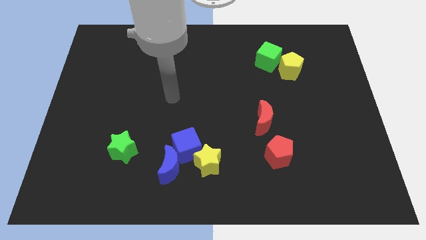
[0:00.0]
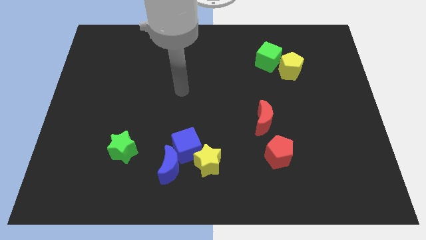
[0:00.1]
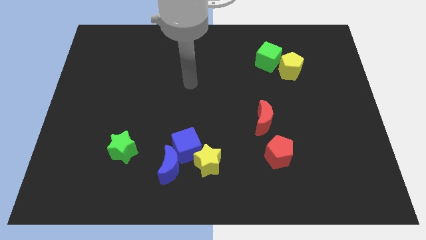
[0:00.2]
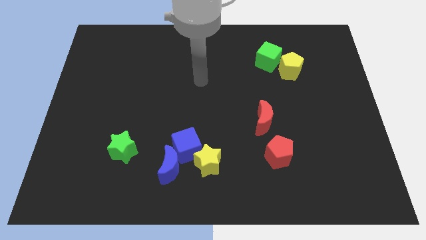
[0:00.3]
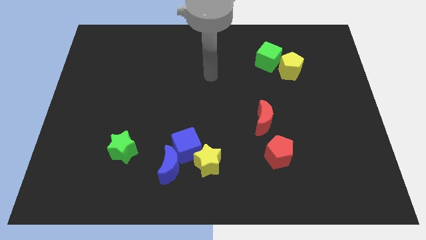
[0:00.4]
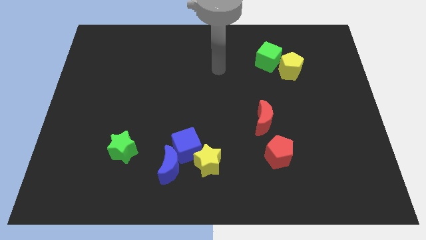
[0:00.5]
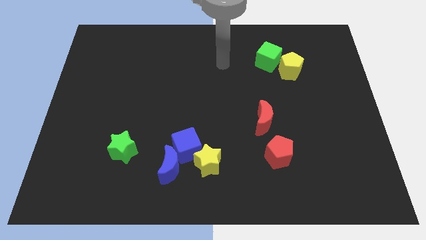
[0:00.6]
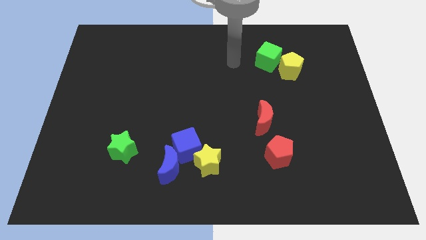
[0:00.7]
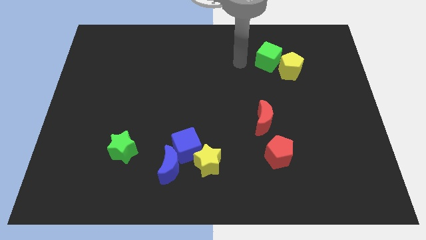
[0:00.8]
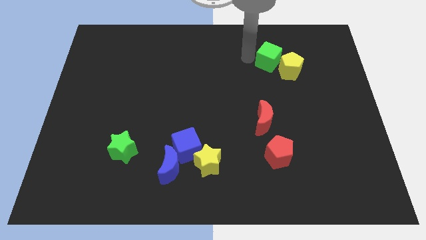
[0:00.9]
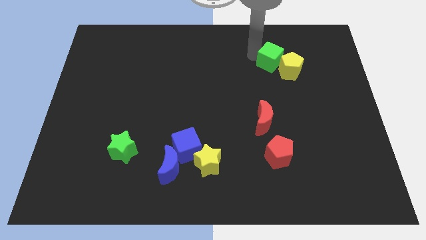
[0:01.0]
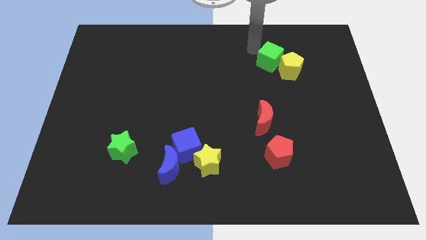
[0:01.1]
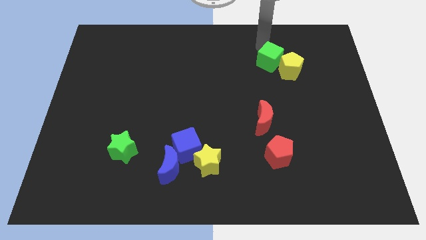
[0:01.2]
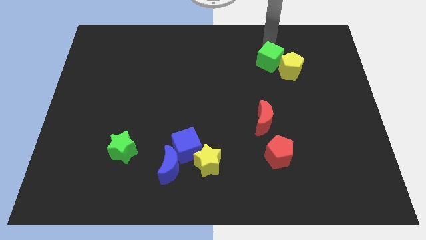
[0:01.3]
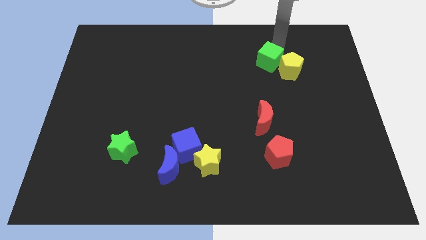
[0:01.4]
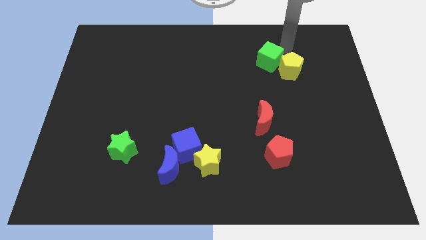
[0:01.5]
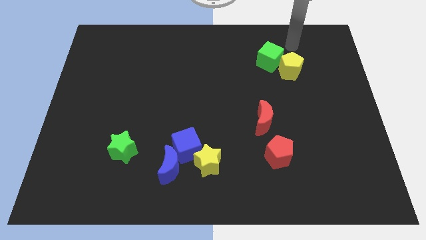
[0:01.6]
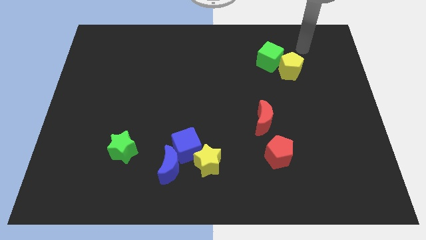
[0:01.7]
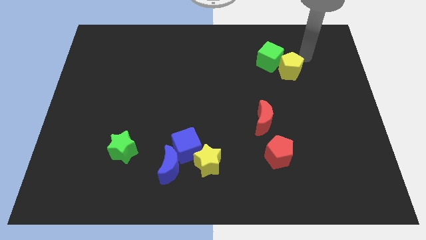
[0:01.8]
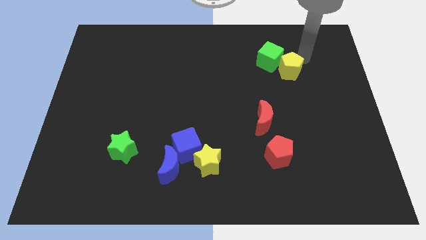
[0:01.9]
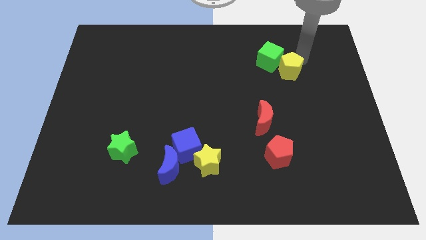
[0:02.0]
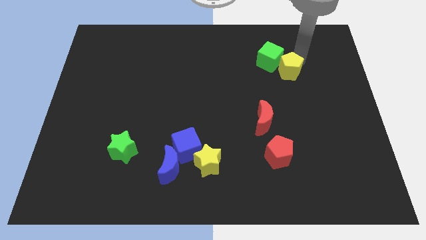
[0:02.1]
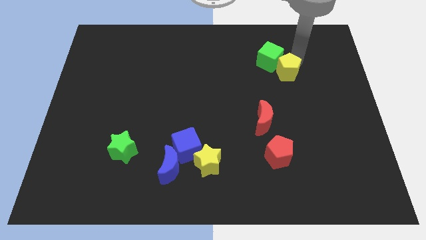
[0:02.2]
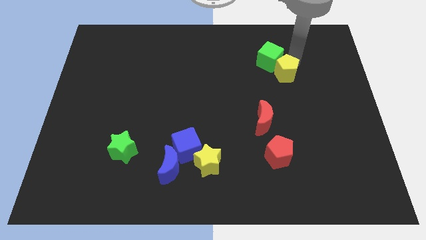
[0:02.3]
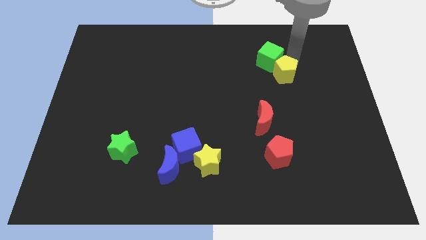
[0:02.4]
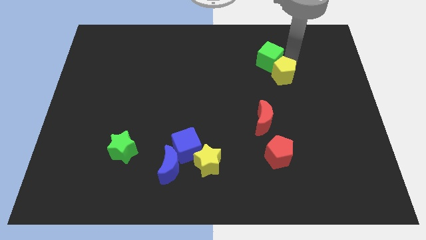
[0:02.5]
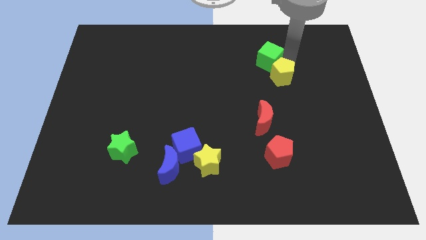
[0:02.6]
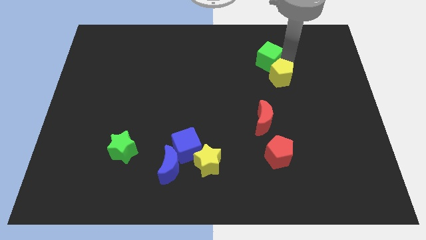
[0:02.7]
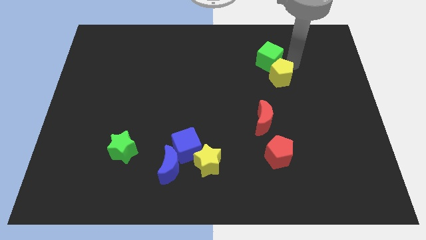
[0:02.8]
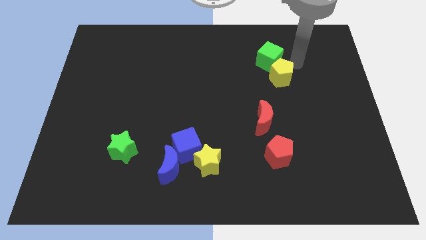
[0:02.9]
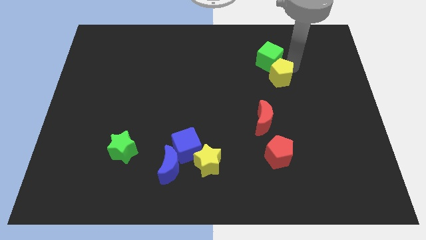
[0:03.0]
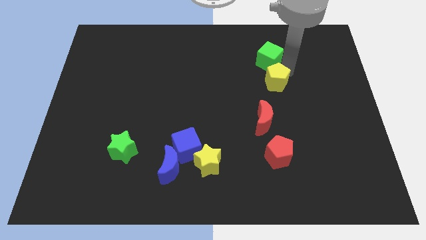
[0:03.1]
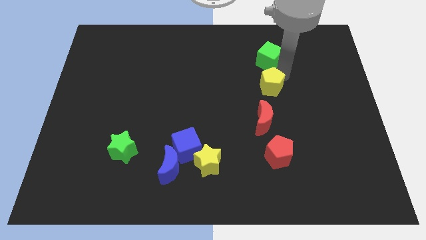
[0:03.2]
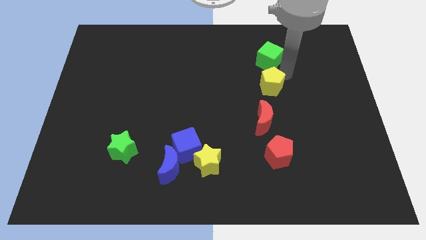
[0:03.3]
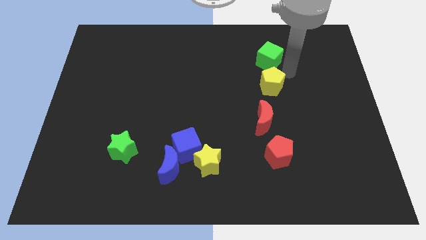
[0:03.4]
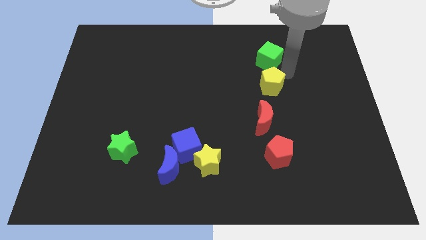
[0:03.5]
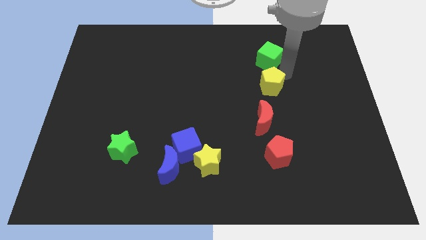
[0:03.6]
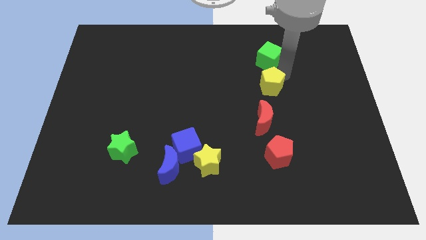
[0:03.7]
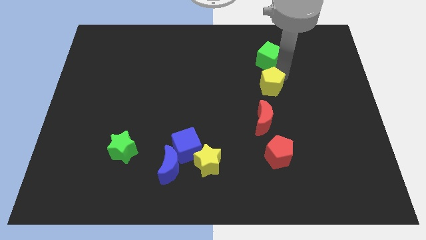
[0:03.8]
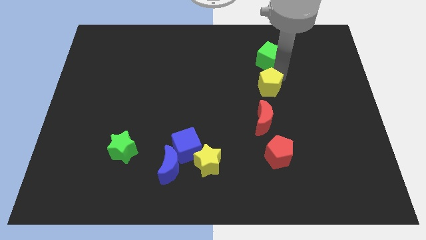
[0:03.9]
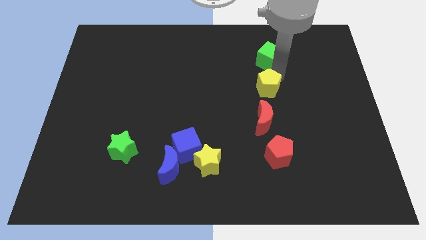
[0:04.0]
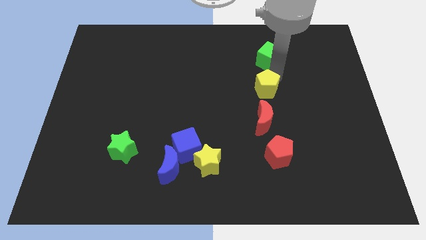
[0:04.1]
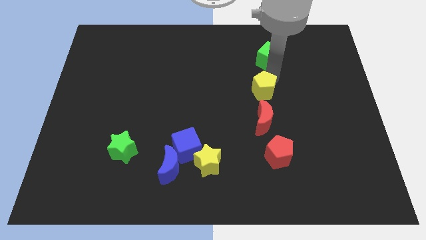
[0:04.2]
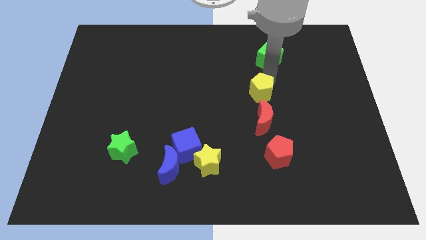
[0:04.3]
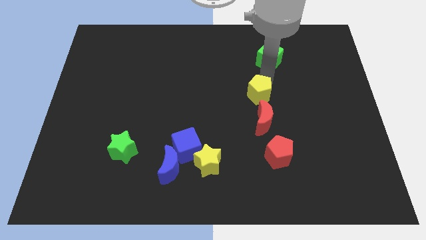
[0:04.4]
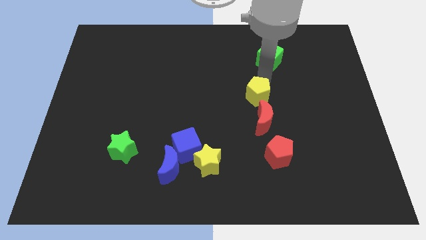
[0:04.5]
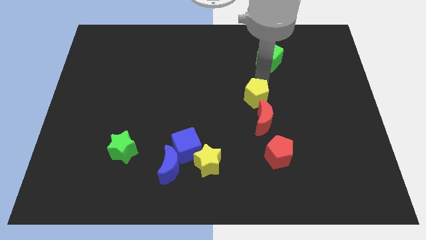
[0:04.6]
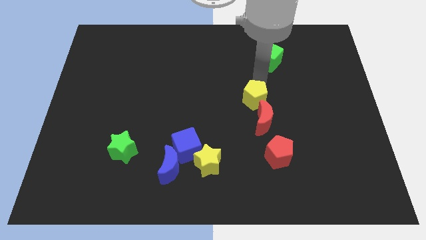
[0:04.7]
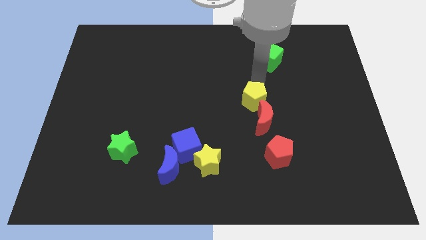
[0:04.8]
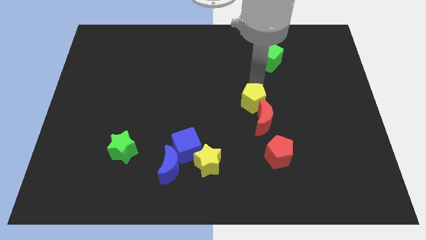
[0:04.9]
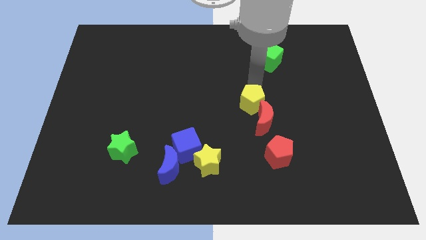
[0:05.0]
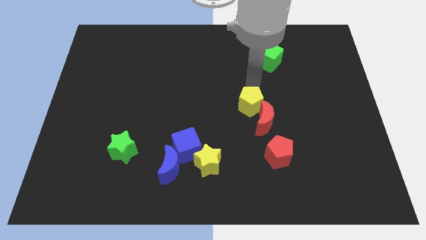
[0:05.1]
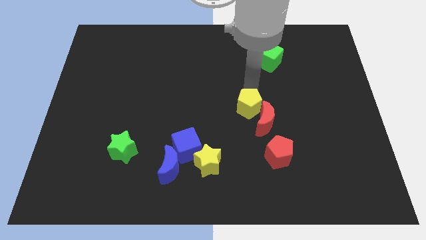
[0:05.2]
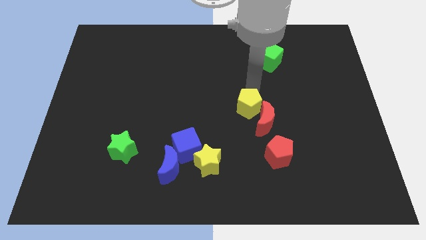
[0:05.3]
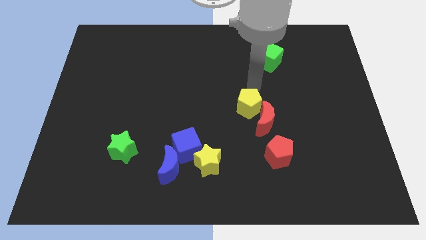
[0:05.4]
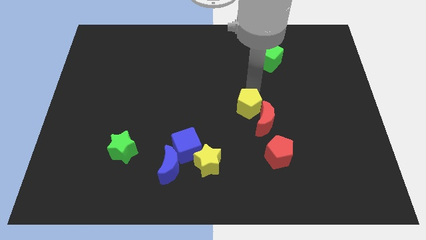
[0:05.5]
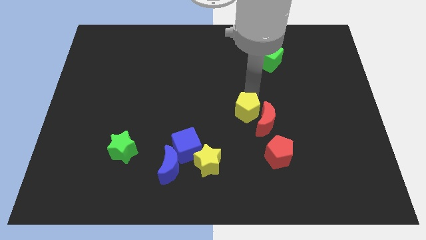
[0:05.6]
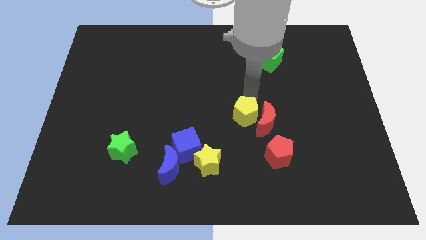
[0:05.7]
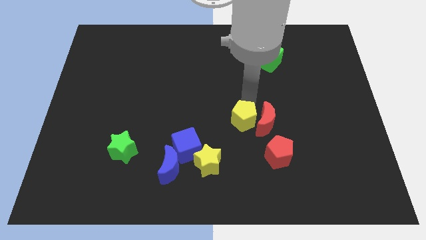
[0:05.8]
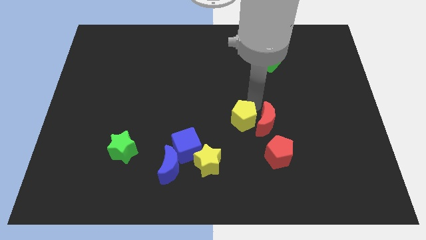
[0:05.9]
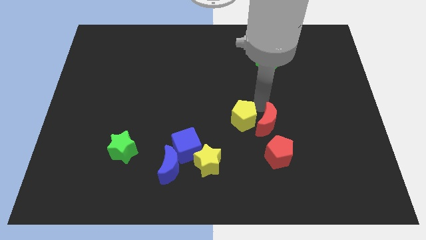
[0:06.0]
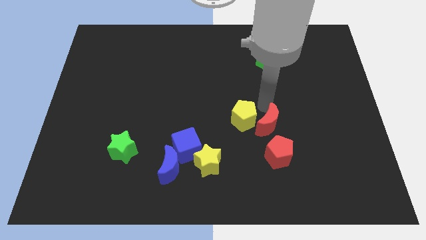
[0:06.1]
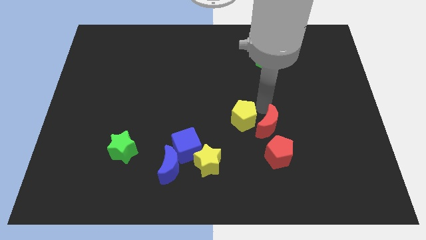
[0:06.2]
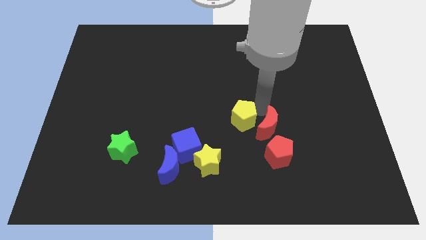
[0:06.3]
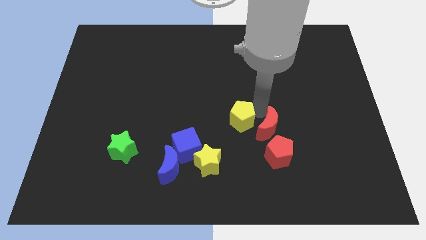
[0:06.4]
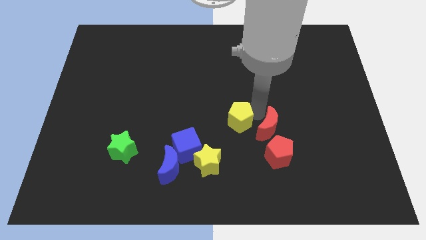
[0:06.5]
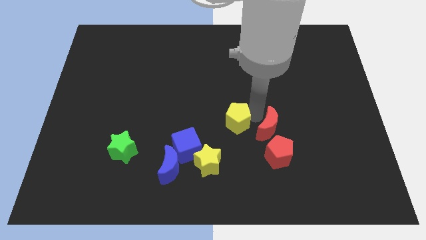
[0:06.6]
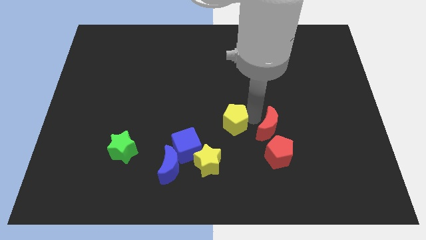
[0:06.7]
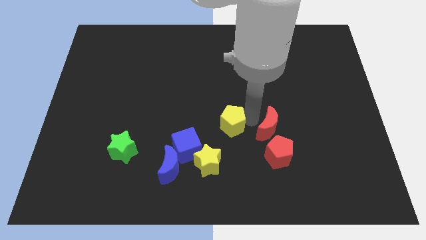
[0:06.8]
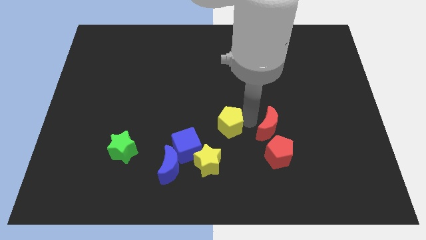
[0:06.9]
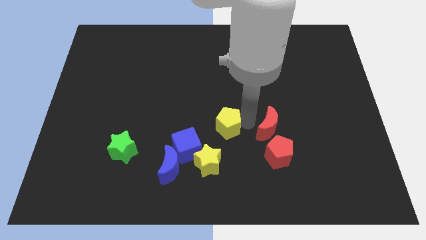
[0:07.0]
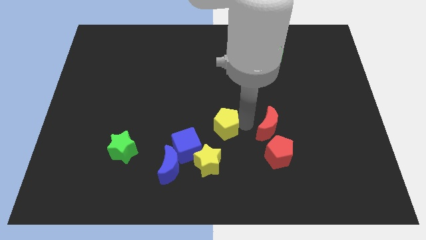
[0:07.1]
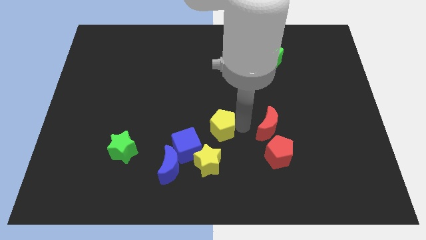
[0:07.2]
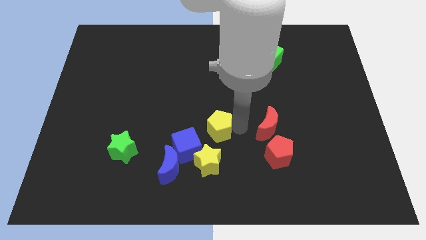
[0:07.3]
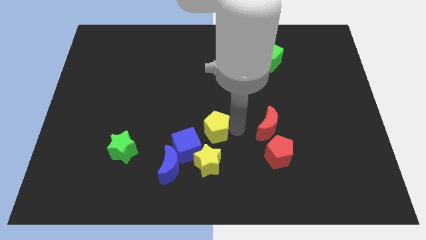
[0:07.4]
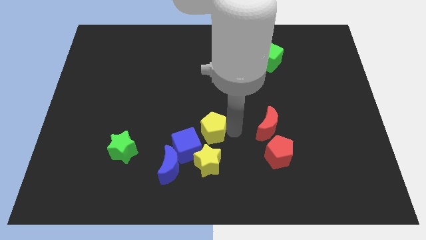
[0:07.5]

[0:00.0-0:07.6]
move the yellow pentagon to the top right of the blue moon
